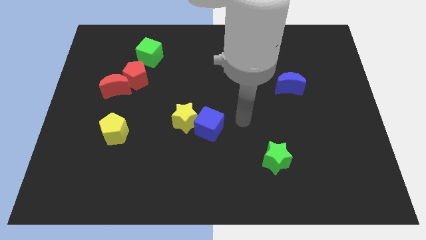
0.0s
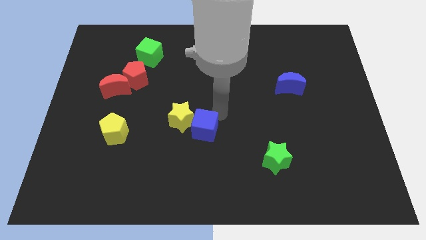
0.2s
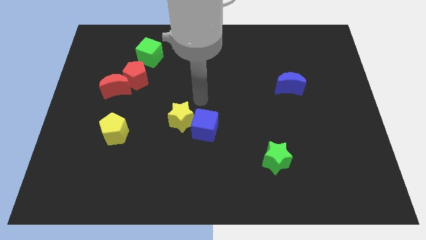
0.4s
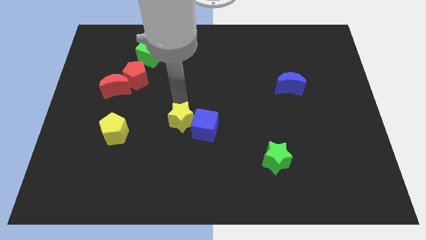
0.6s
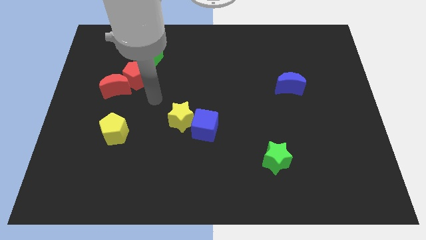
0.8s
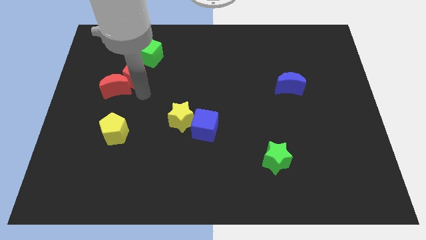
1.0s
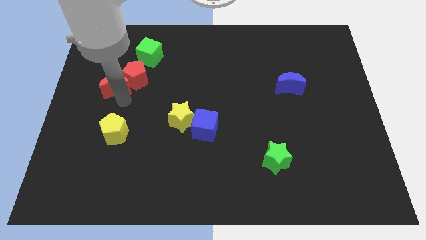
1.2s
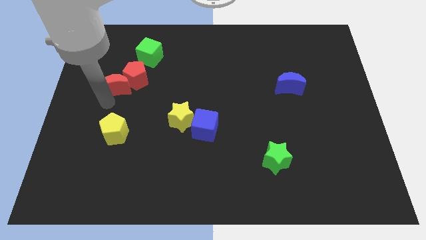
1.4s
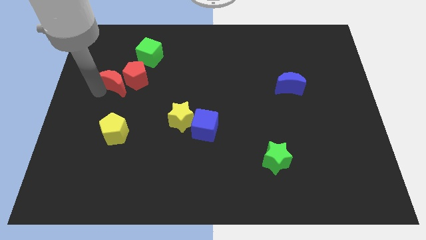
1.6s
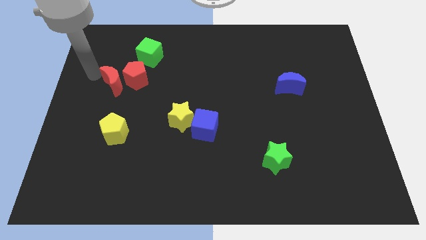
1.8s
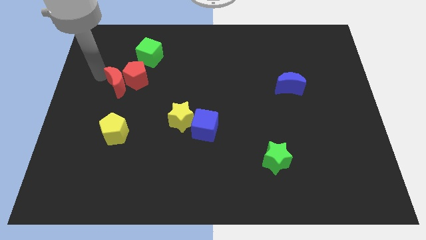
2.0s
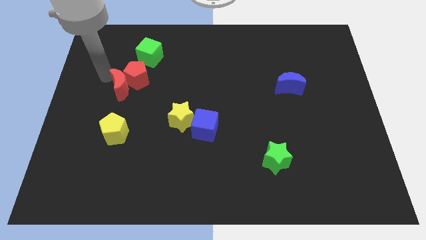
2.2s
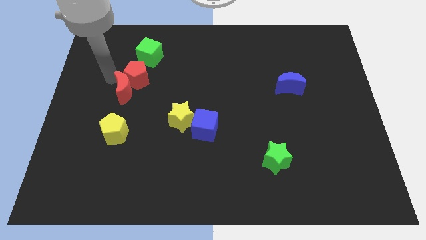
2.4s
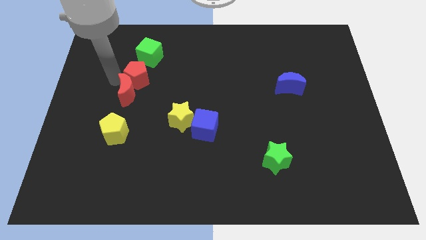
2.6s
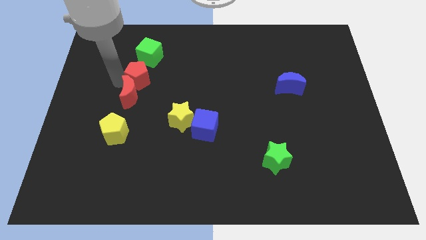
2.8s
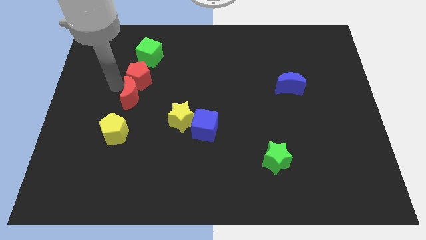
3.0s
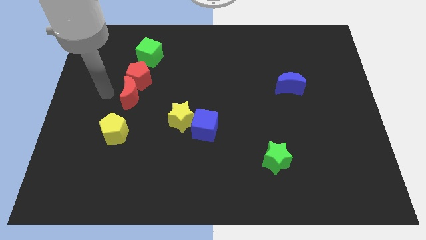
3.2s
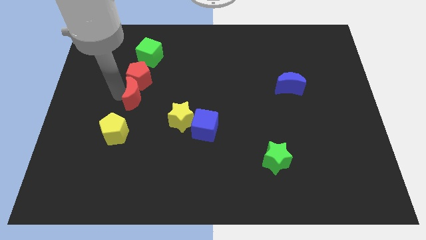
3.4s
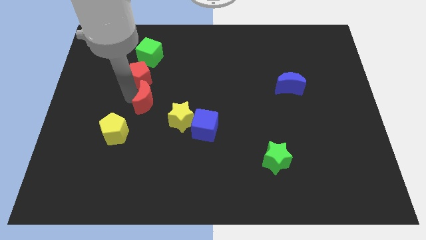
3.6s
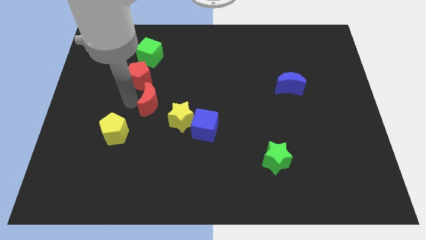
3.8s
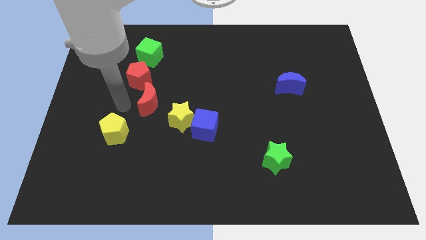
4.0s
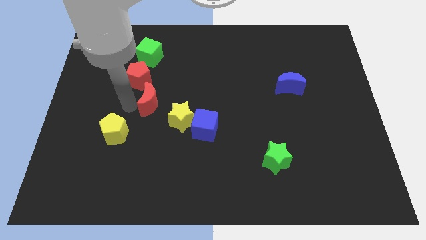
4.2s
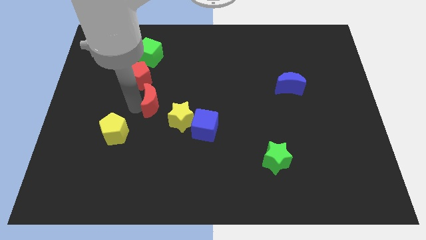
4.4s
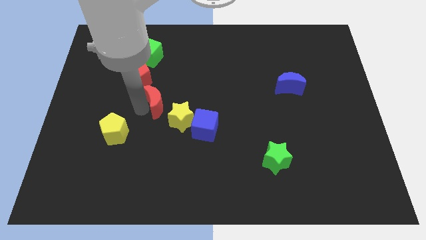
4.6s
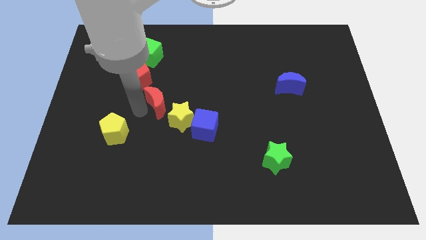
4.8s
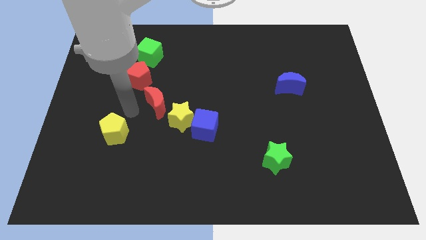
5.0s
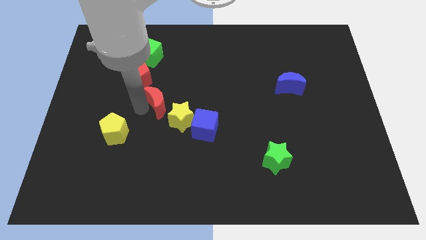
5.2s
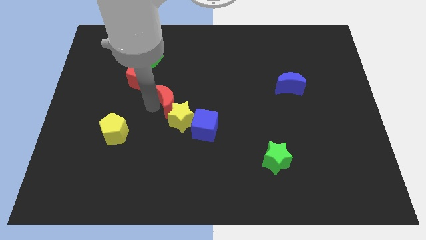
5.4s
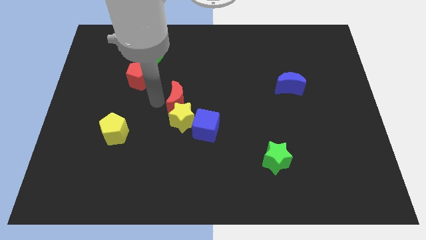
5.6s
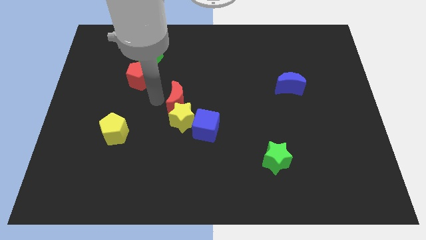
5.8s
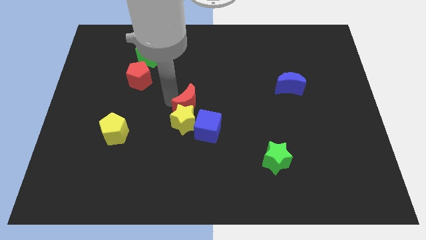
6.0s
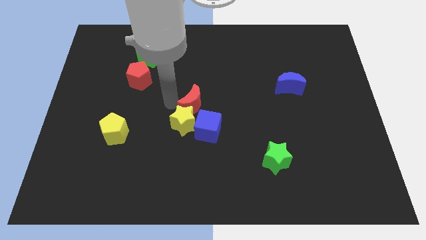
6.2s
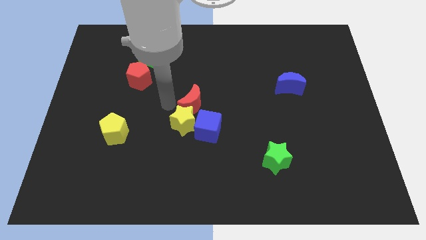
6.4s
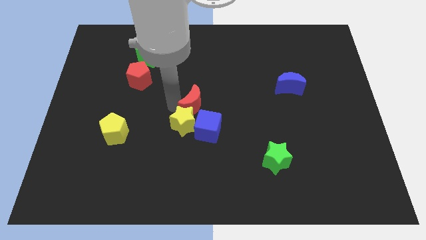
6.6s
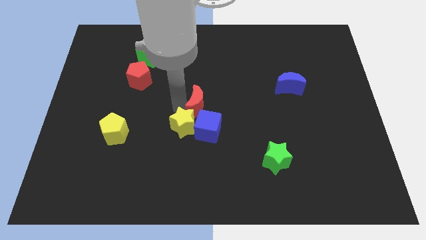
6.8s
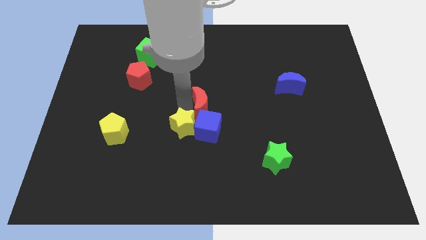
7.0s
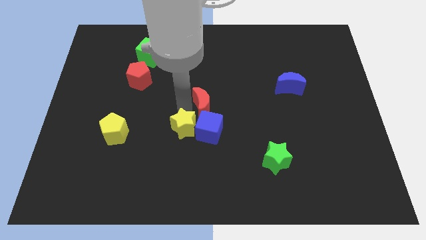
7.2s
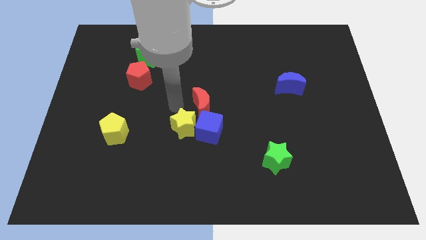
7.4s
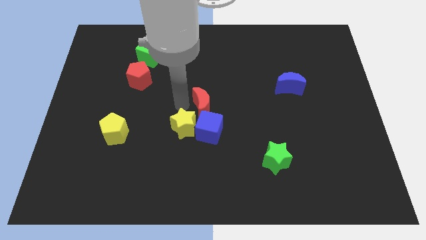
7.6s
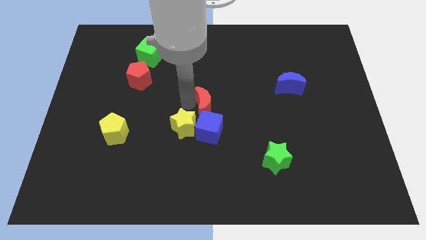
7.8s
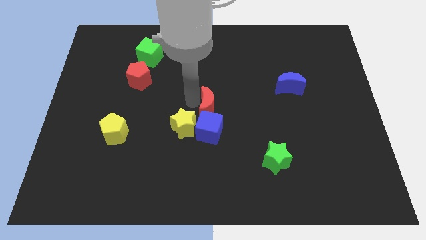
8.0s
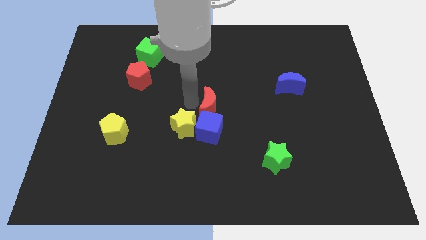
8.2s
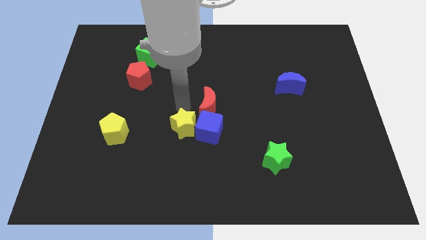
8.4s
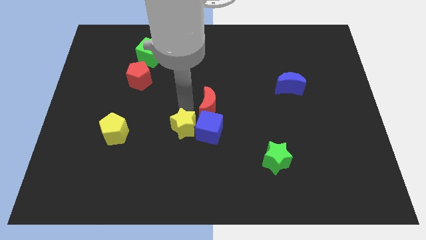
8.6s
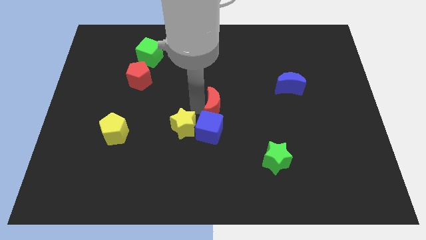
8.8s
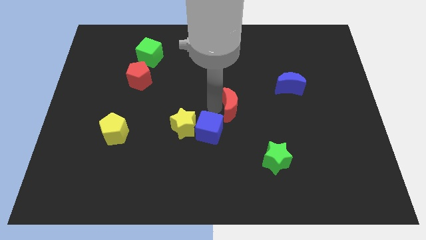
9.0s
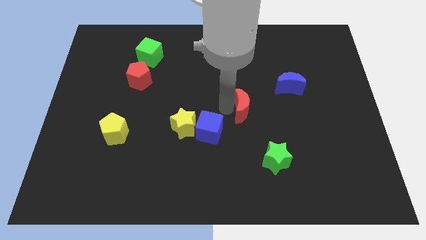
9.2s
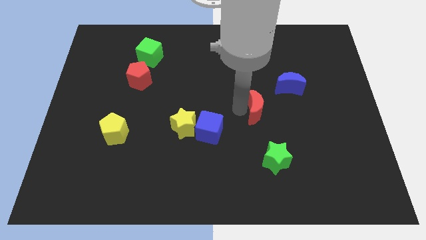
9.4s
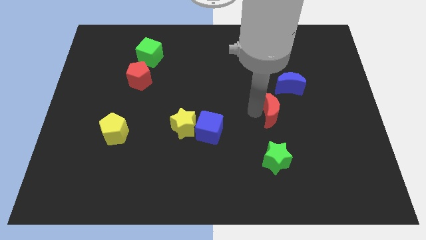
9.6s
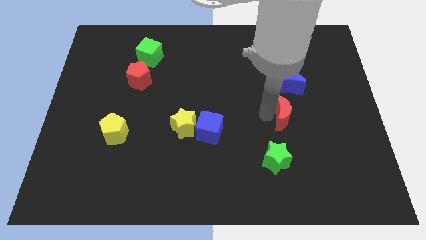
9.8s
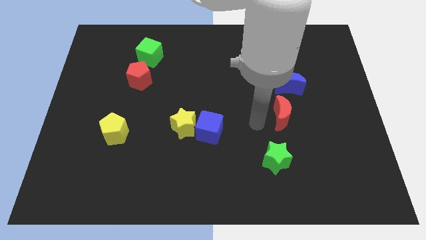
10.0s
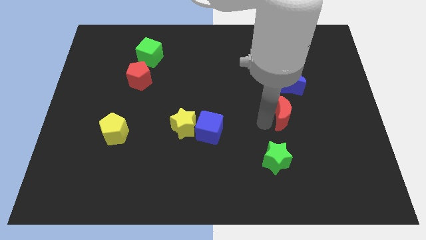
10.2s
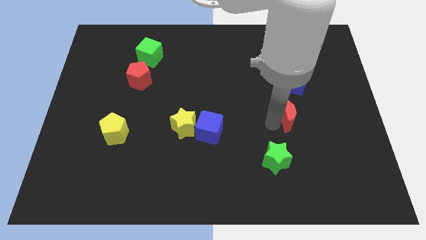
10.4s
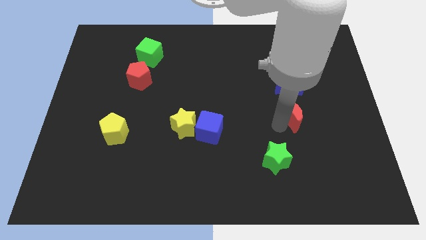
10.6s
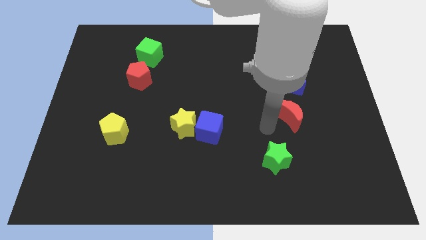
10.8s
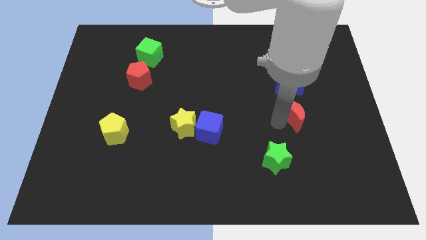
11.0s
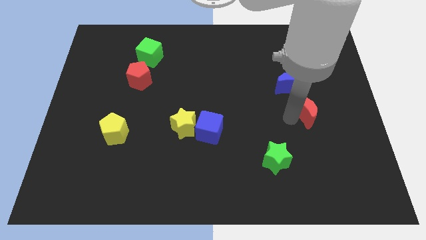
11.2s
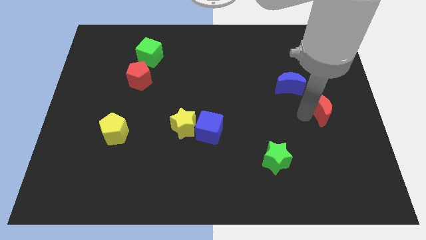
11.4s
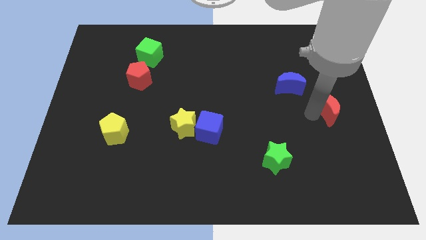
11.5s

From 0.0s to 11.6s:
move the red moon to the right side of the board

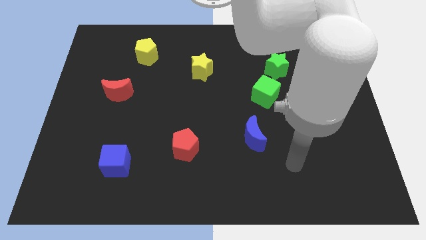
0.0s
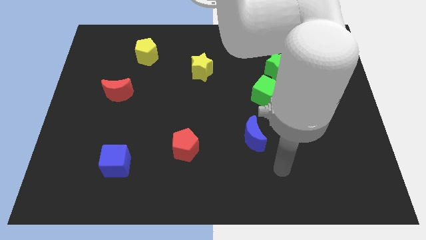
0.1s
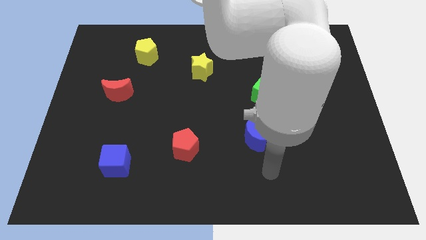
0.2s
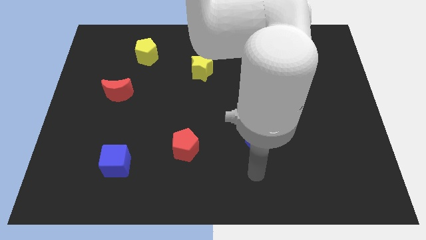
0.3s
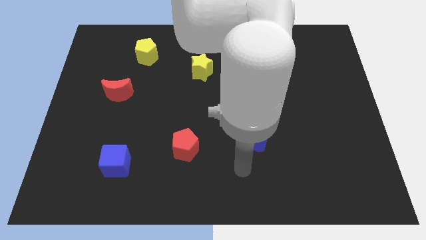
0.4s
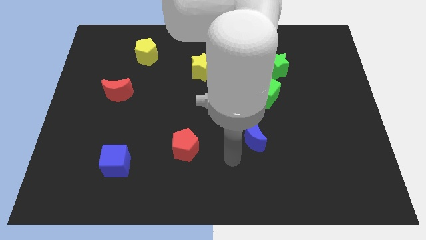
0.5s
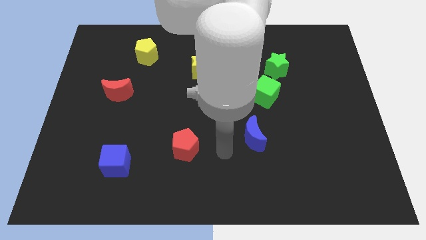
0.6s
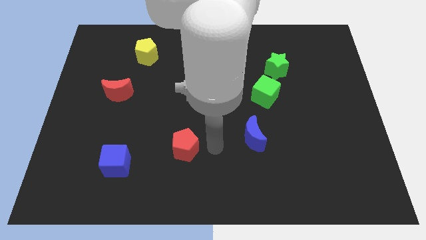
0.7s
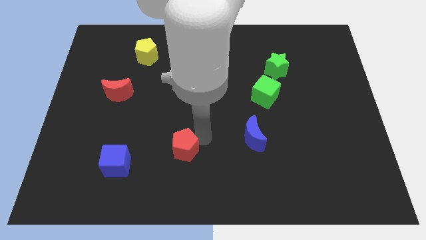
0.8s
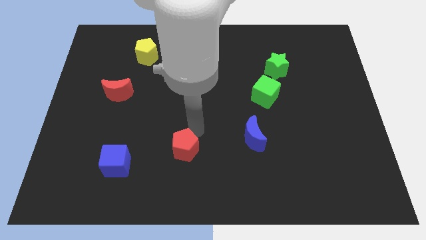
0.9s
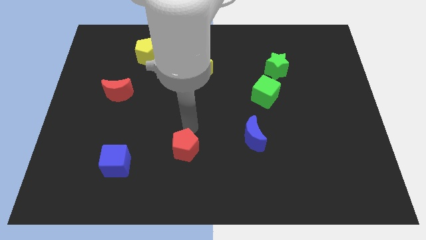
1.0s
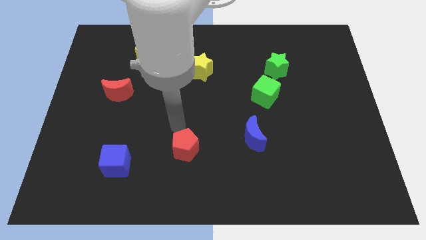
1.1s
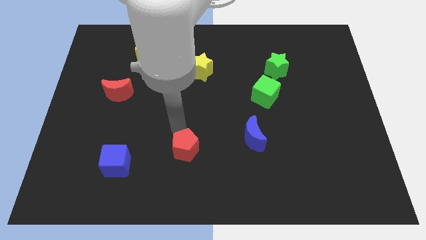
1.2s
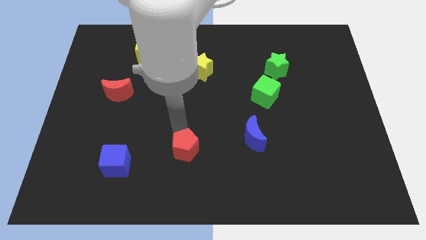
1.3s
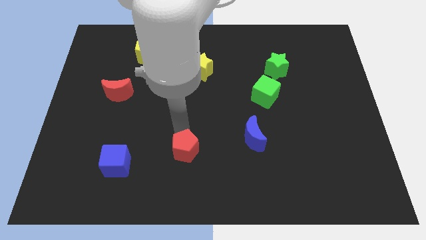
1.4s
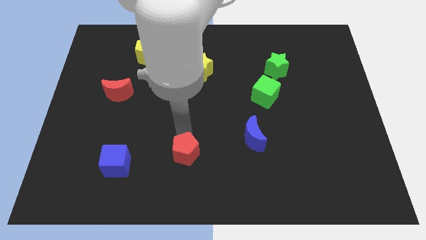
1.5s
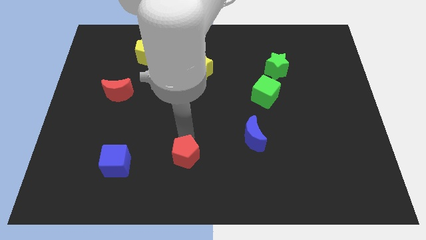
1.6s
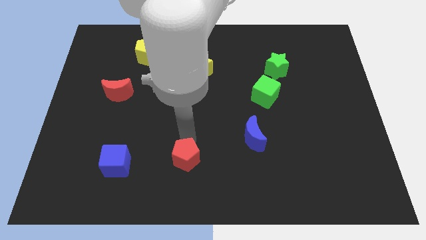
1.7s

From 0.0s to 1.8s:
slide the red pentagon to the bottom side
